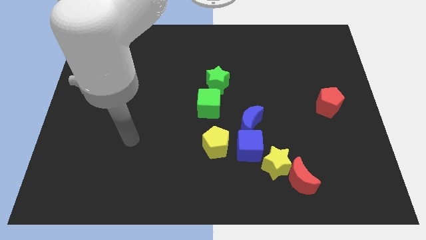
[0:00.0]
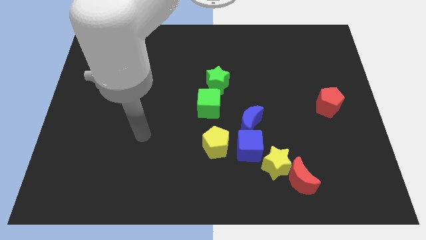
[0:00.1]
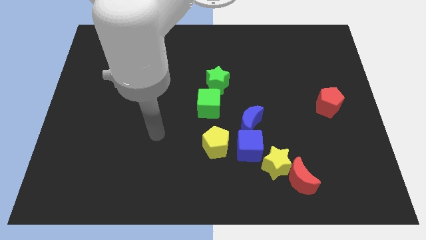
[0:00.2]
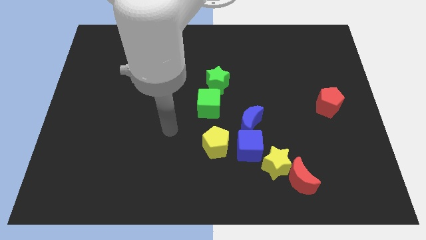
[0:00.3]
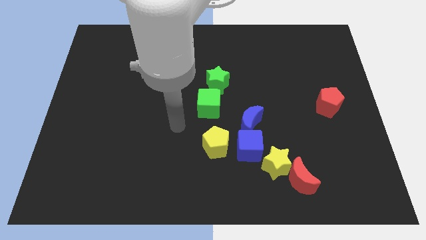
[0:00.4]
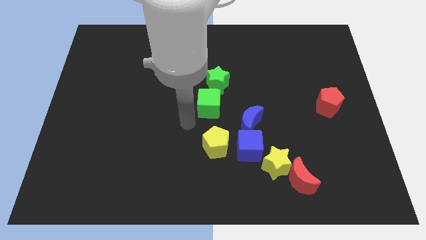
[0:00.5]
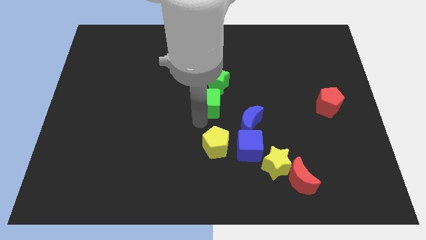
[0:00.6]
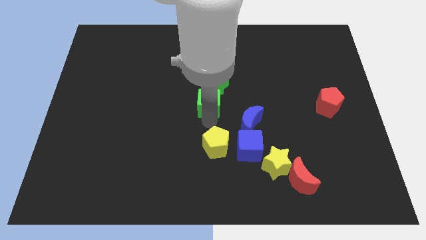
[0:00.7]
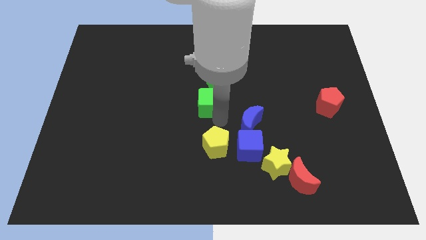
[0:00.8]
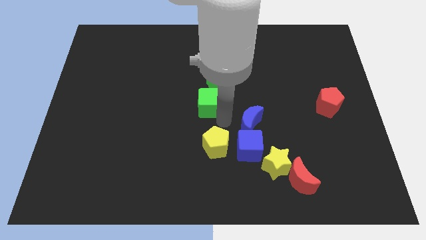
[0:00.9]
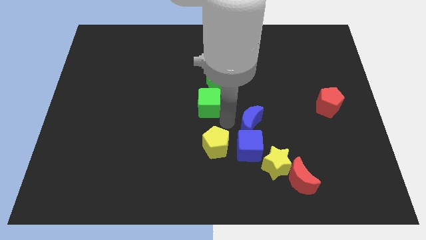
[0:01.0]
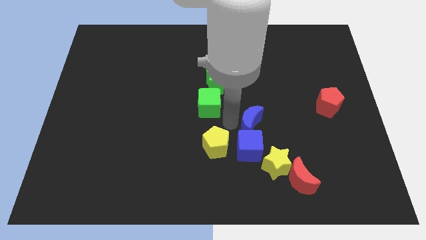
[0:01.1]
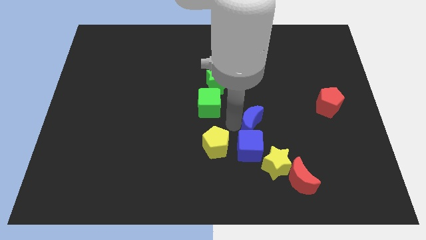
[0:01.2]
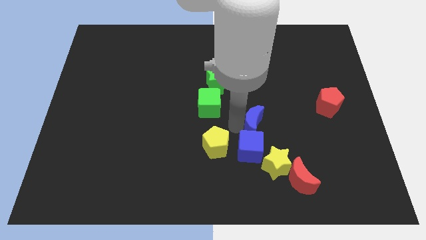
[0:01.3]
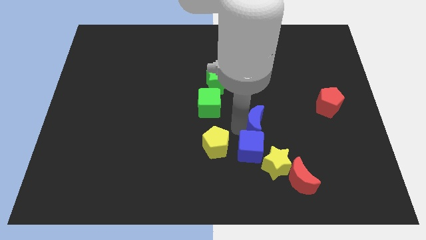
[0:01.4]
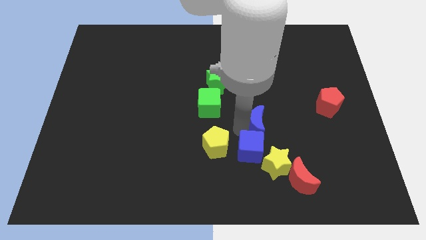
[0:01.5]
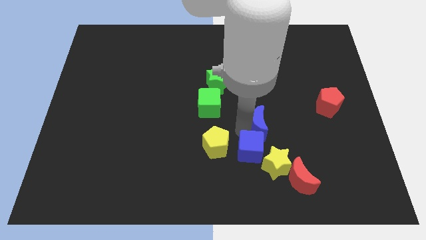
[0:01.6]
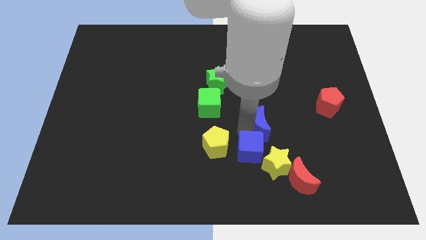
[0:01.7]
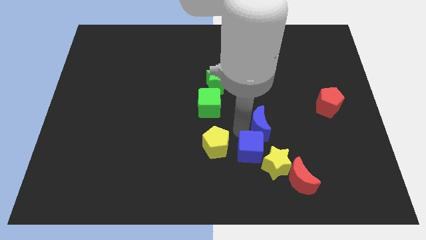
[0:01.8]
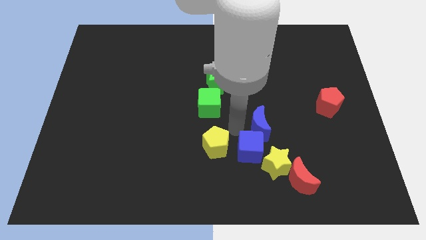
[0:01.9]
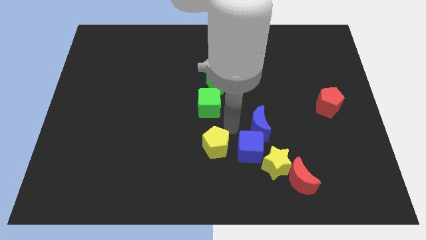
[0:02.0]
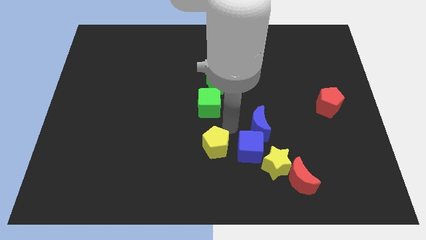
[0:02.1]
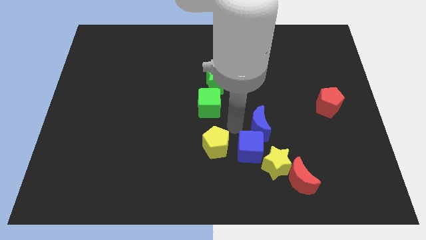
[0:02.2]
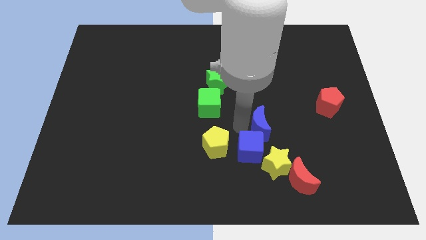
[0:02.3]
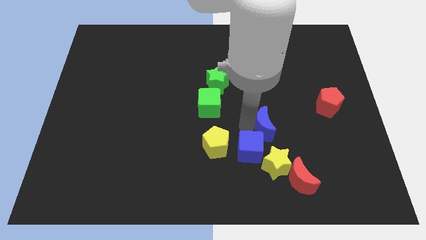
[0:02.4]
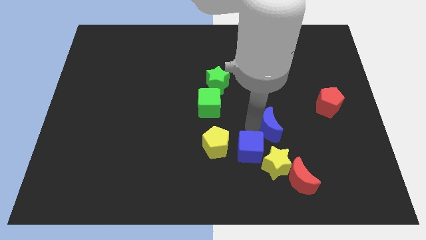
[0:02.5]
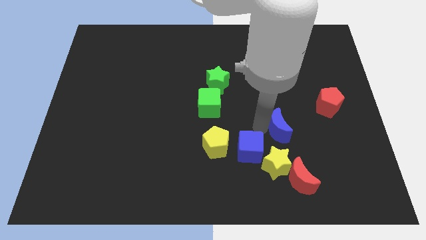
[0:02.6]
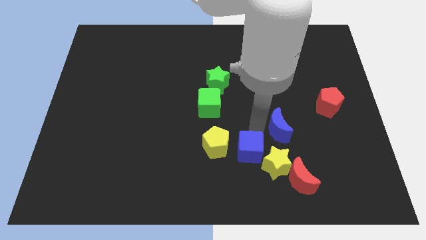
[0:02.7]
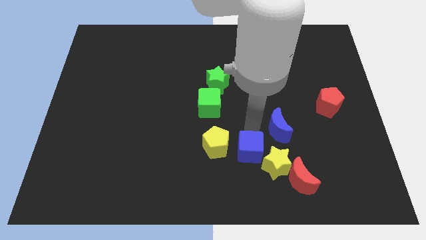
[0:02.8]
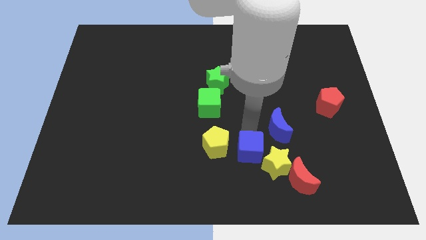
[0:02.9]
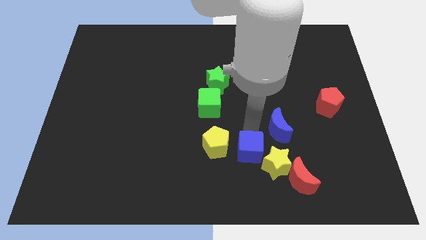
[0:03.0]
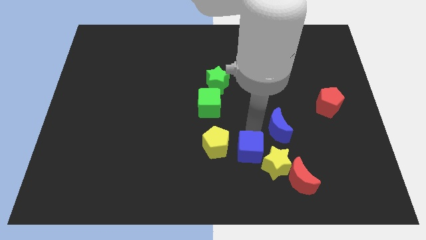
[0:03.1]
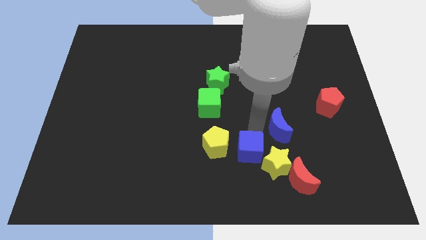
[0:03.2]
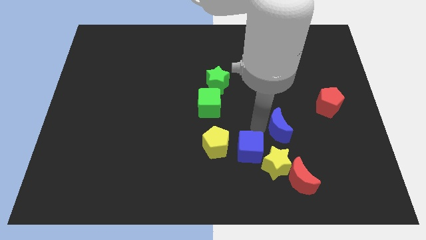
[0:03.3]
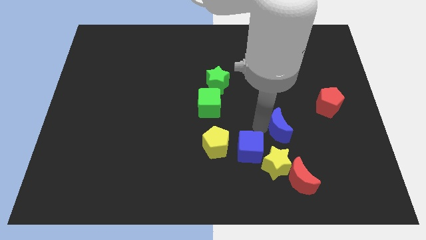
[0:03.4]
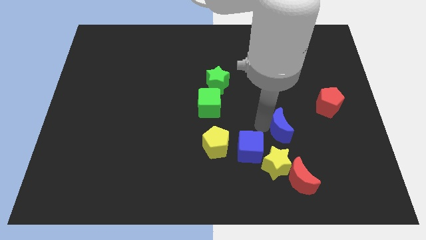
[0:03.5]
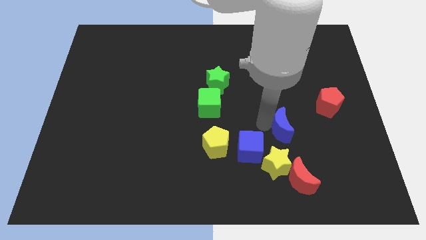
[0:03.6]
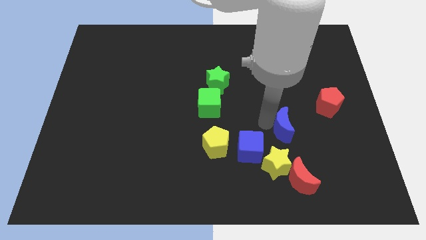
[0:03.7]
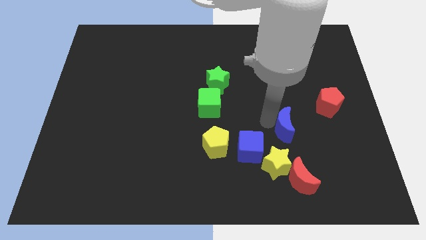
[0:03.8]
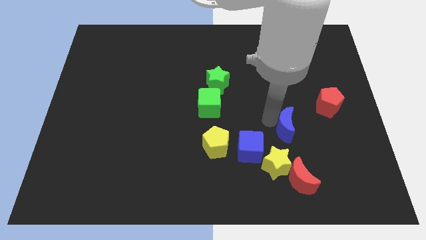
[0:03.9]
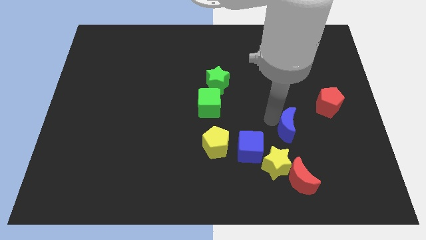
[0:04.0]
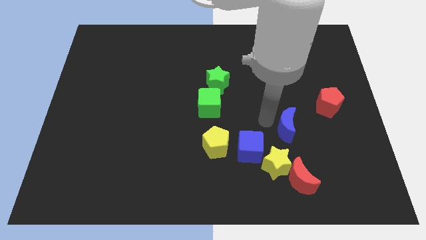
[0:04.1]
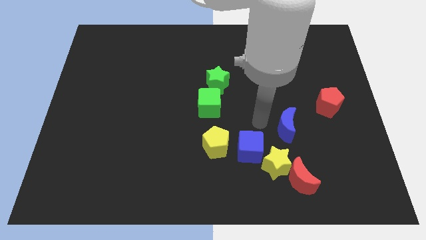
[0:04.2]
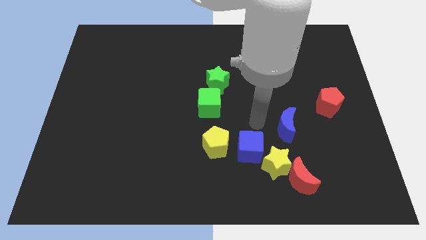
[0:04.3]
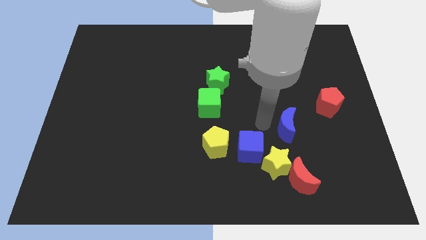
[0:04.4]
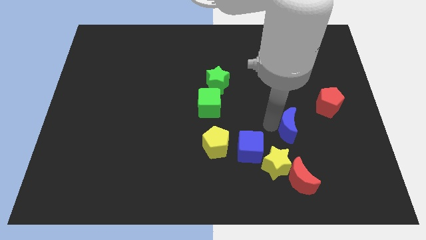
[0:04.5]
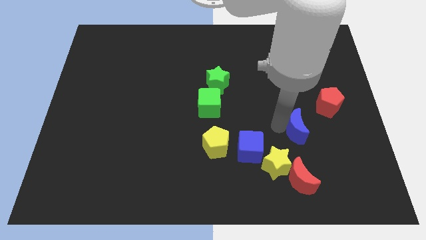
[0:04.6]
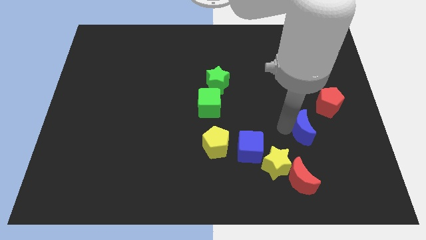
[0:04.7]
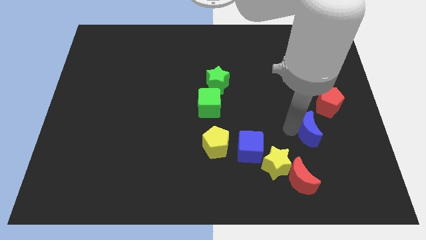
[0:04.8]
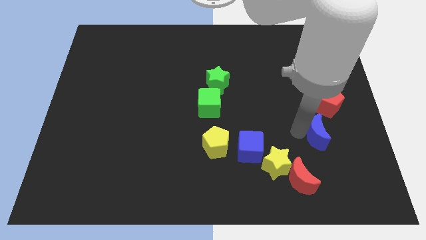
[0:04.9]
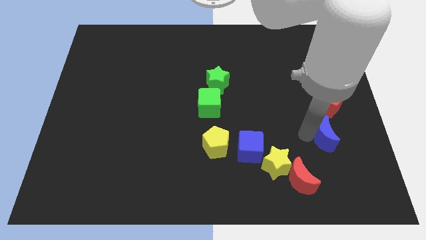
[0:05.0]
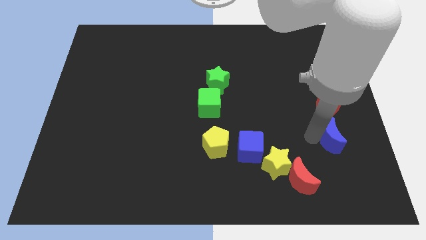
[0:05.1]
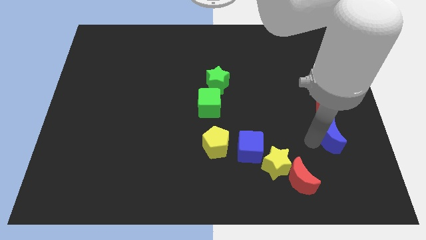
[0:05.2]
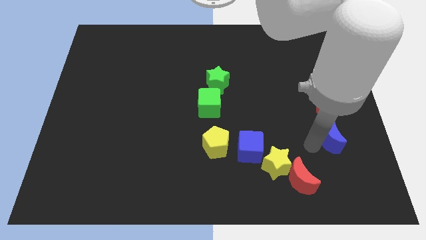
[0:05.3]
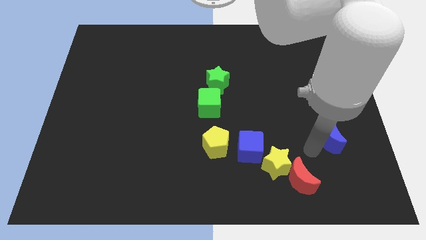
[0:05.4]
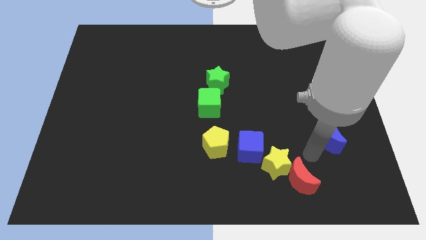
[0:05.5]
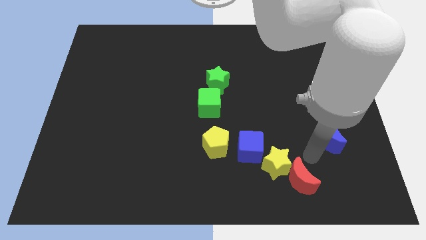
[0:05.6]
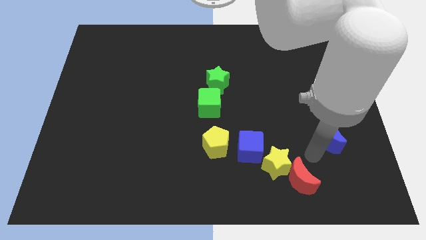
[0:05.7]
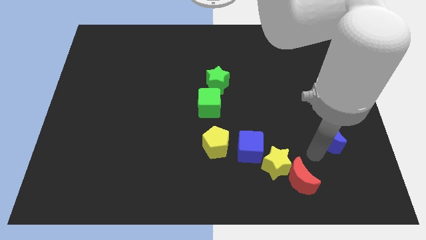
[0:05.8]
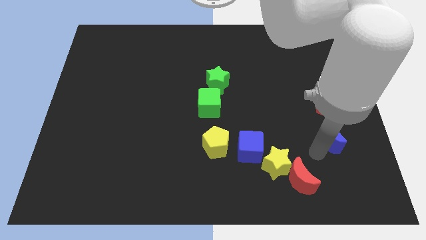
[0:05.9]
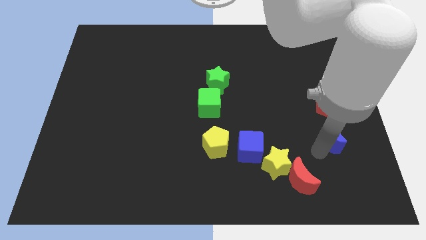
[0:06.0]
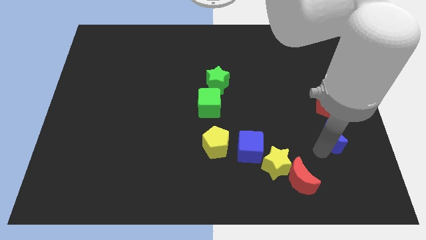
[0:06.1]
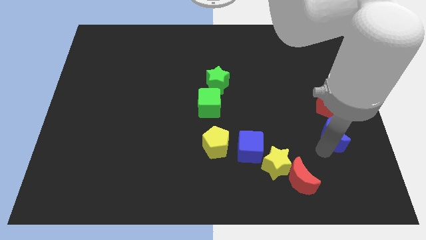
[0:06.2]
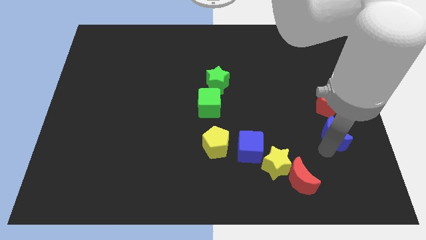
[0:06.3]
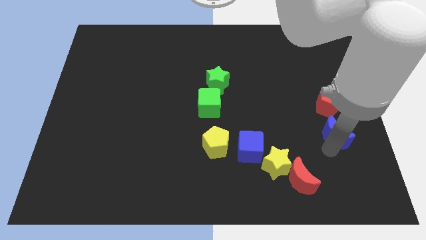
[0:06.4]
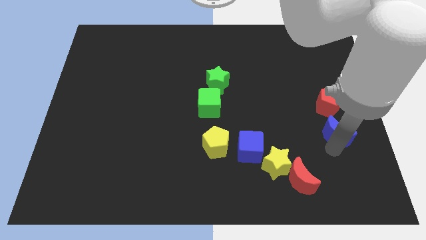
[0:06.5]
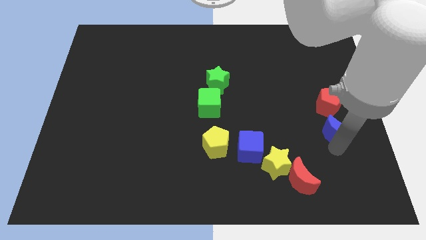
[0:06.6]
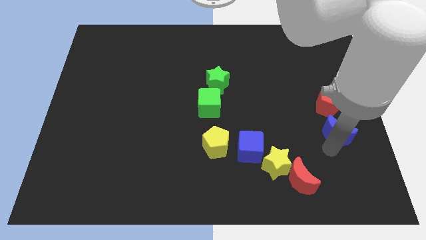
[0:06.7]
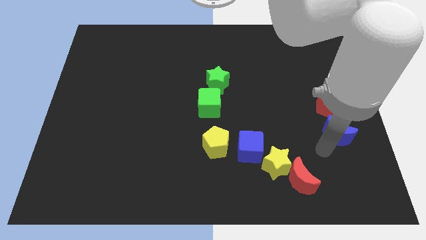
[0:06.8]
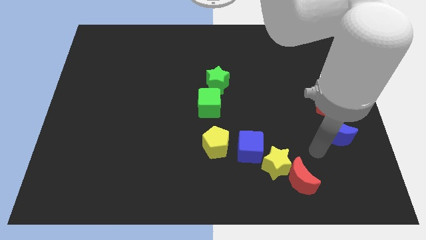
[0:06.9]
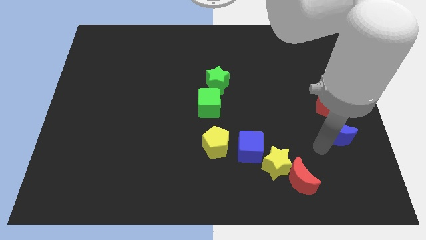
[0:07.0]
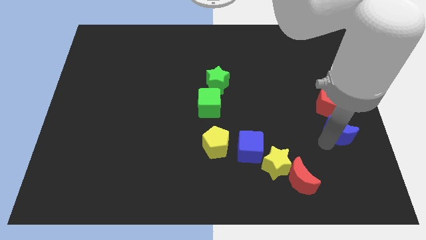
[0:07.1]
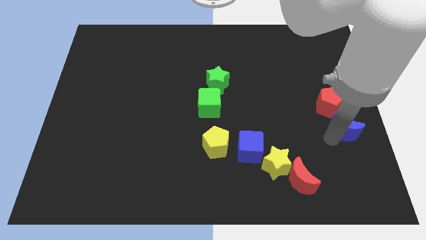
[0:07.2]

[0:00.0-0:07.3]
push the blue moon to the right side of the board
